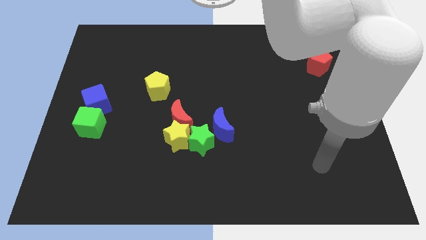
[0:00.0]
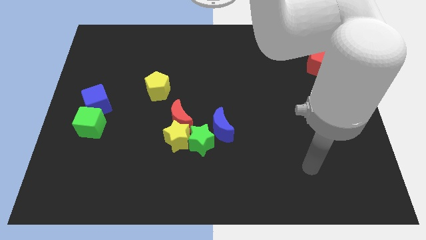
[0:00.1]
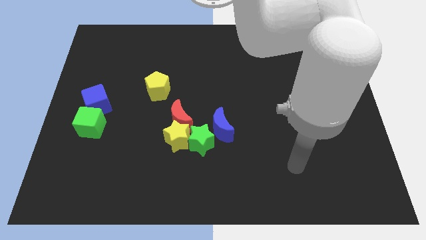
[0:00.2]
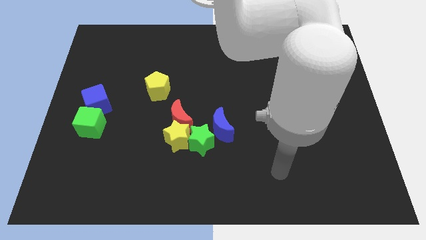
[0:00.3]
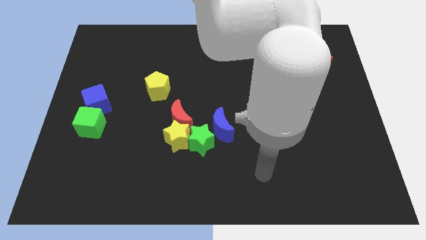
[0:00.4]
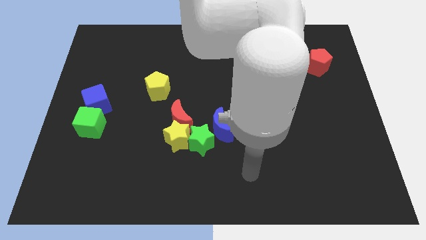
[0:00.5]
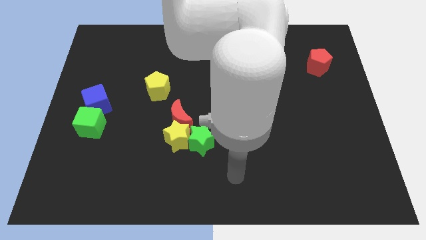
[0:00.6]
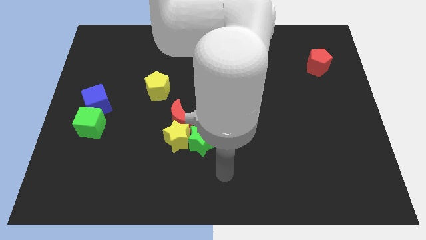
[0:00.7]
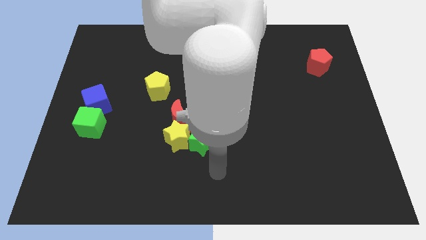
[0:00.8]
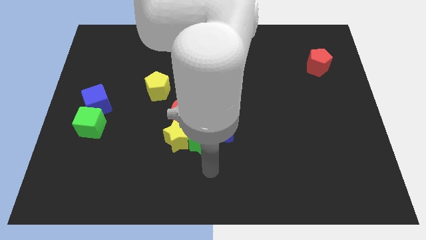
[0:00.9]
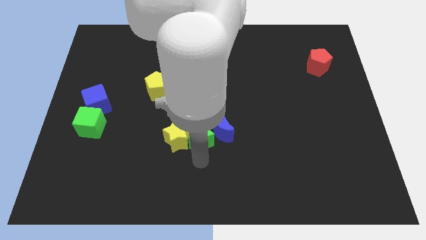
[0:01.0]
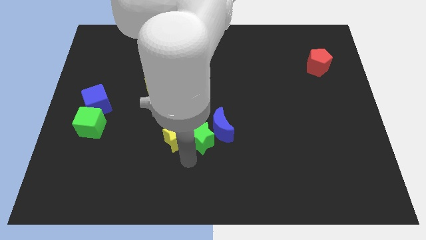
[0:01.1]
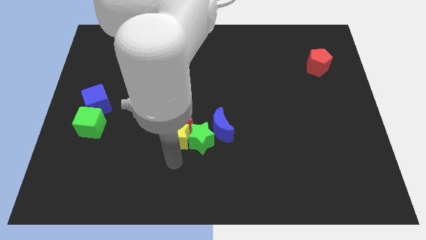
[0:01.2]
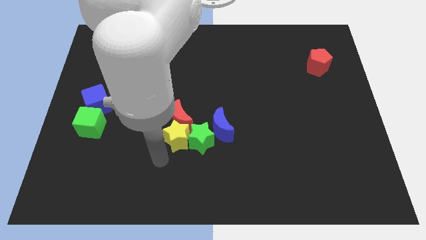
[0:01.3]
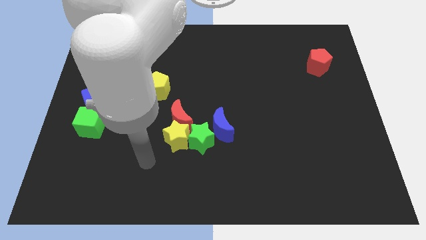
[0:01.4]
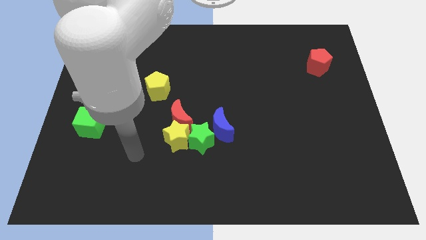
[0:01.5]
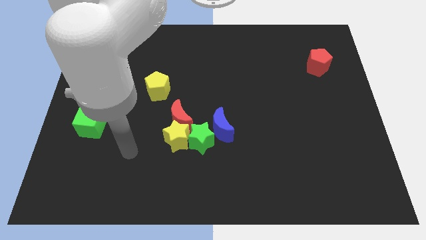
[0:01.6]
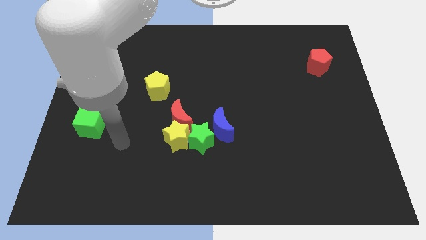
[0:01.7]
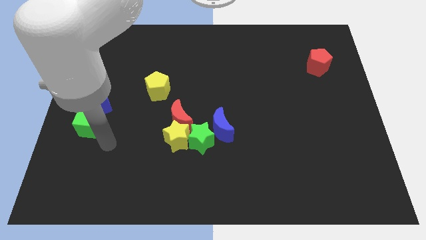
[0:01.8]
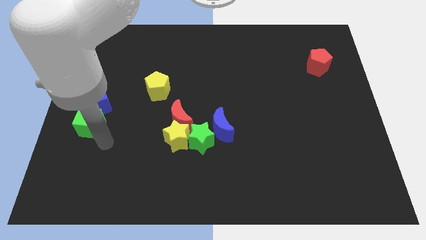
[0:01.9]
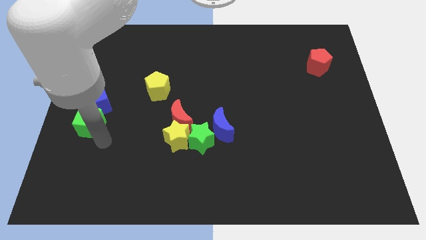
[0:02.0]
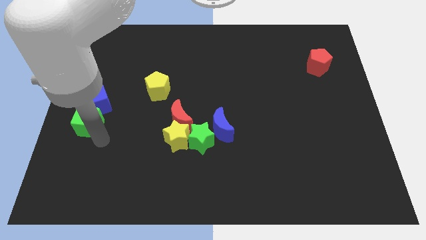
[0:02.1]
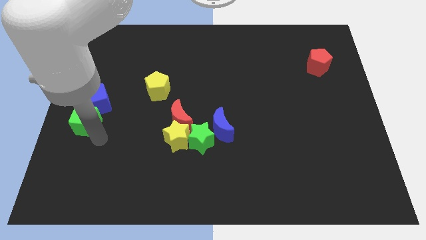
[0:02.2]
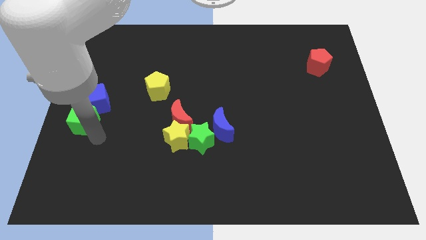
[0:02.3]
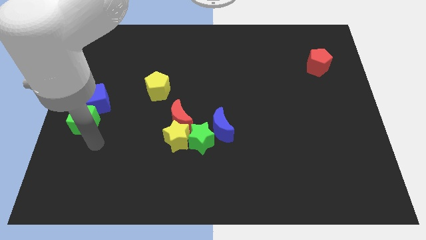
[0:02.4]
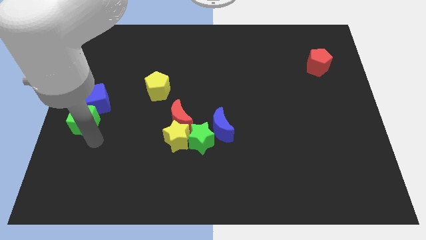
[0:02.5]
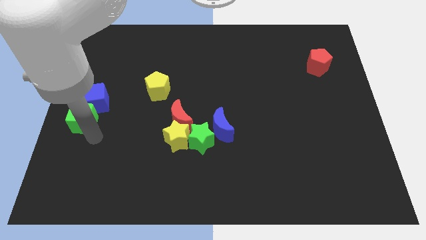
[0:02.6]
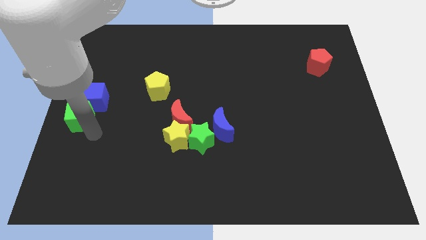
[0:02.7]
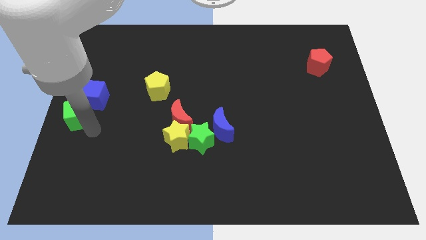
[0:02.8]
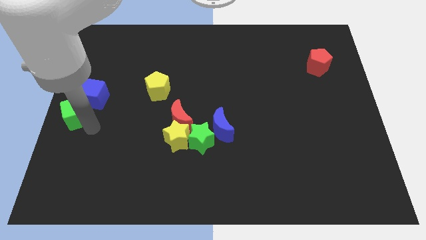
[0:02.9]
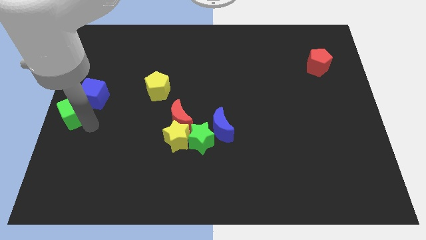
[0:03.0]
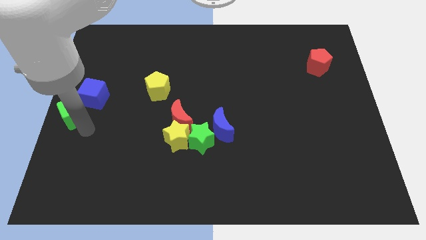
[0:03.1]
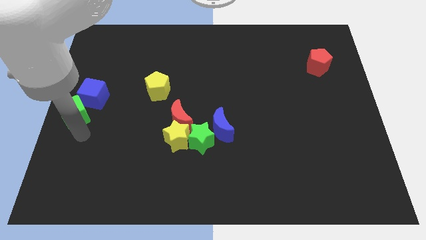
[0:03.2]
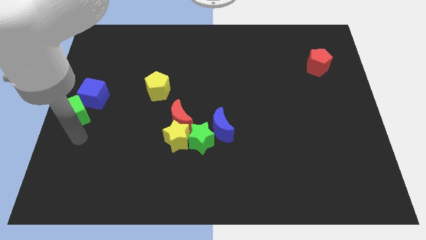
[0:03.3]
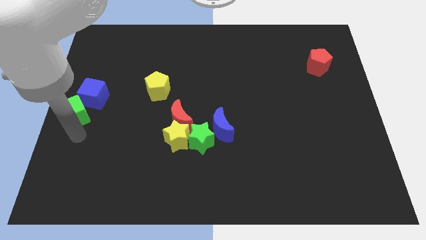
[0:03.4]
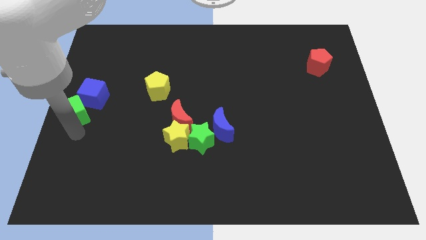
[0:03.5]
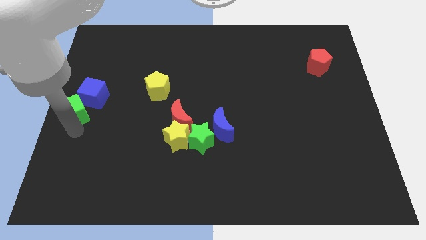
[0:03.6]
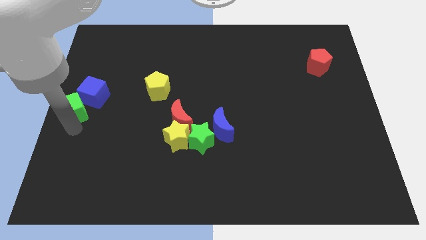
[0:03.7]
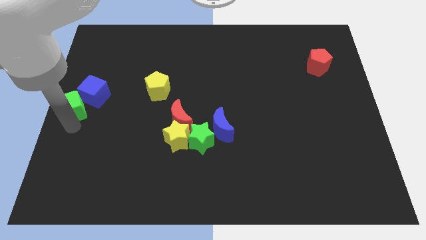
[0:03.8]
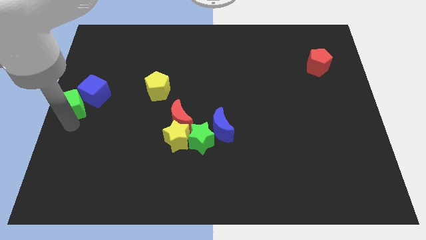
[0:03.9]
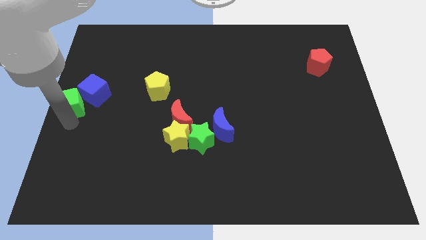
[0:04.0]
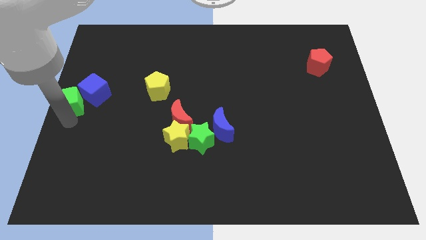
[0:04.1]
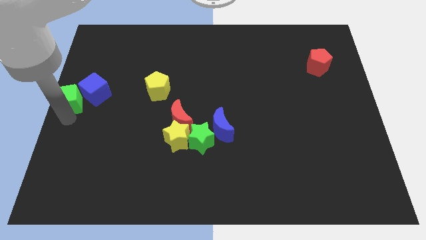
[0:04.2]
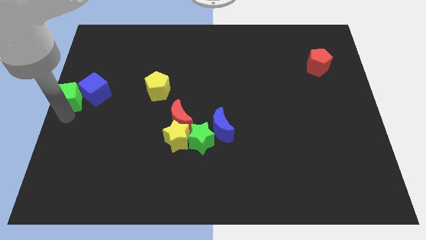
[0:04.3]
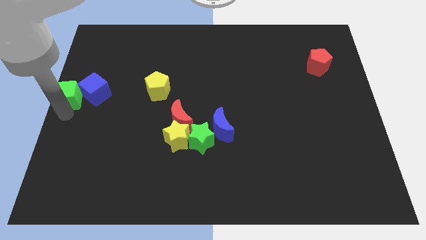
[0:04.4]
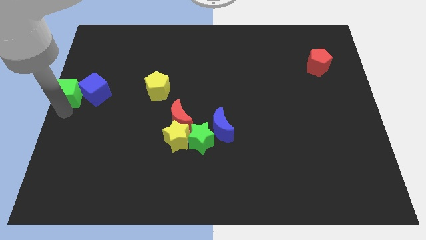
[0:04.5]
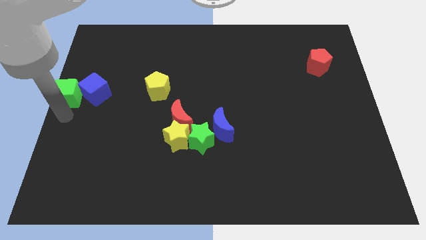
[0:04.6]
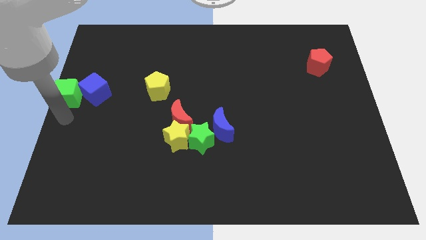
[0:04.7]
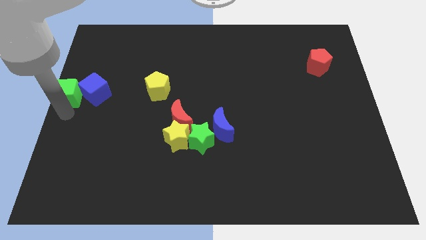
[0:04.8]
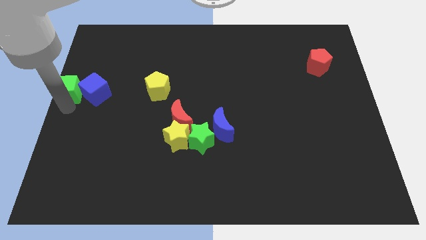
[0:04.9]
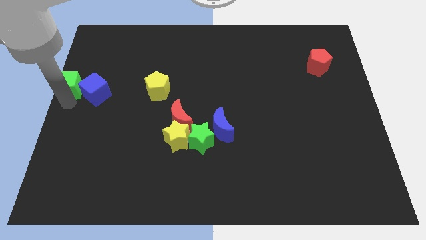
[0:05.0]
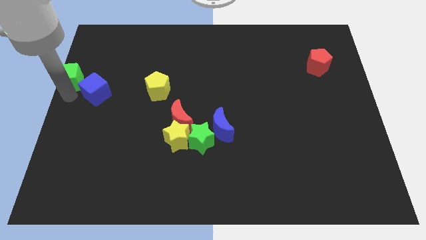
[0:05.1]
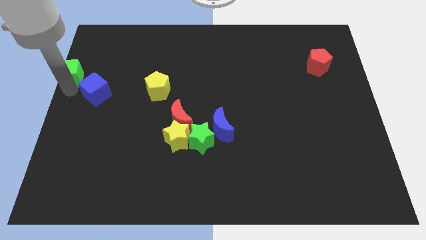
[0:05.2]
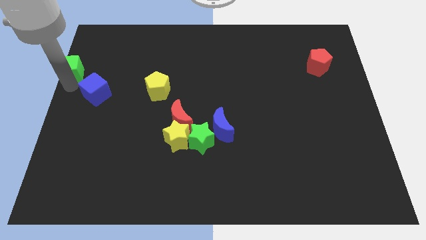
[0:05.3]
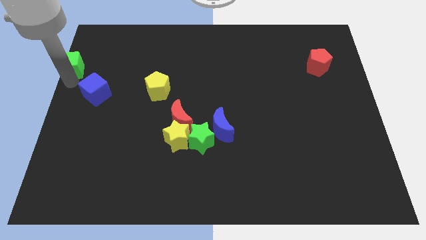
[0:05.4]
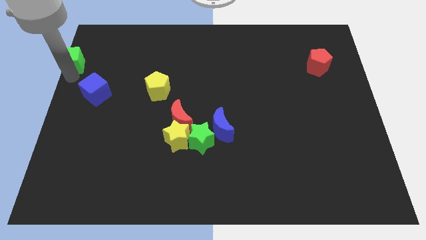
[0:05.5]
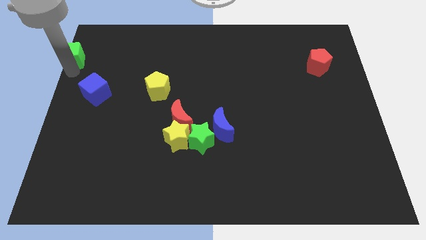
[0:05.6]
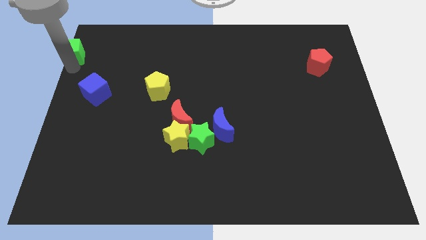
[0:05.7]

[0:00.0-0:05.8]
push the green cube to the top left corner

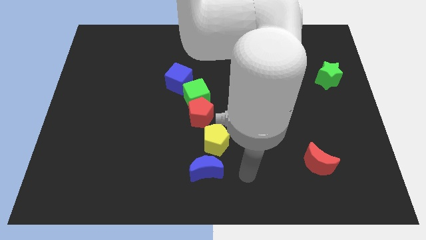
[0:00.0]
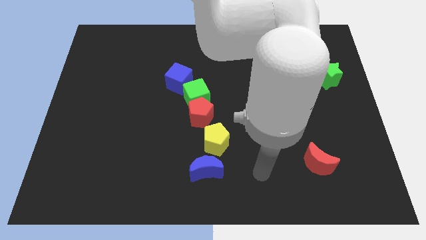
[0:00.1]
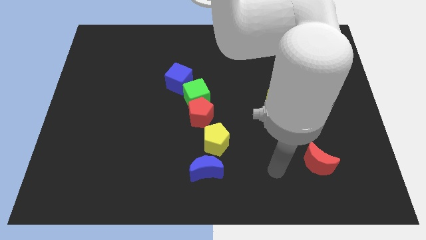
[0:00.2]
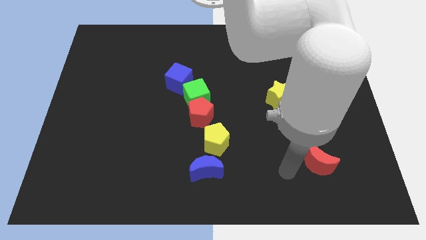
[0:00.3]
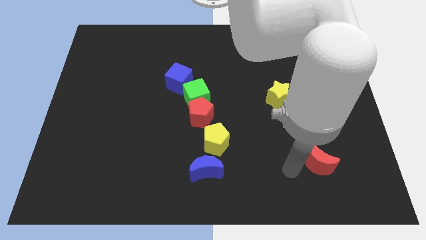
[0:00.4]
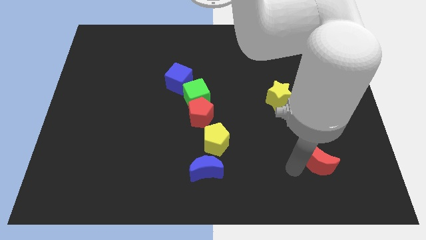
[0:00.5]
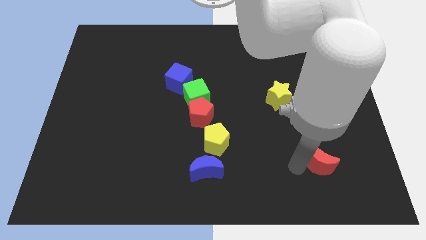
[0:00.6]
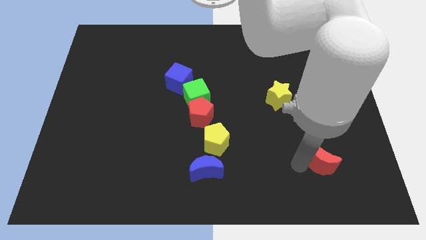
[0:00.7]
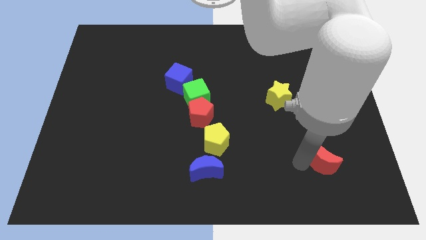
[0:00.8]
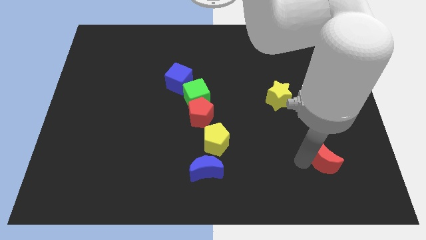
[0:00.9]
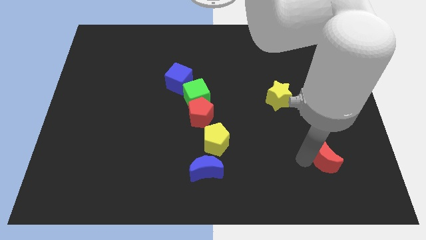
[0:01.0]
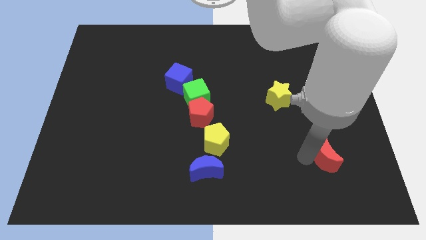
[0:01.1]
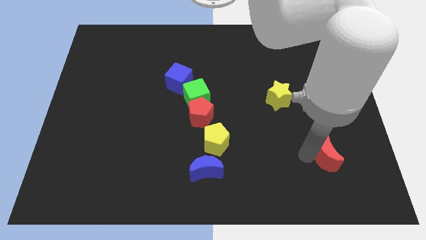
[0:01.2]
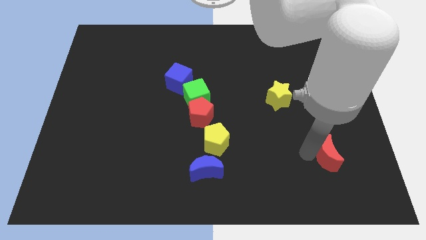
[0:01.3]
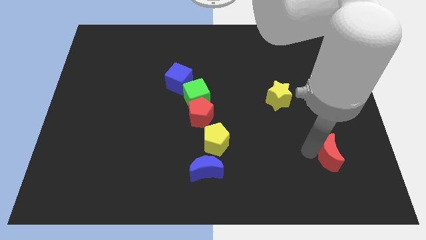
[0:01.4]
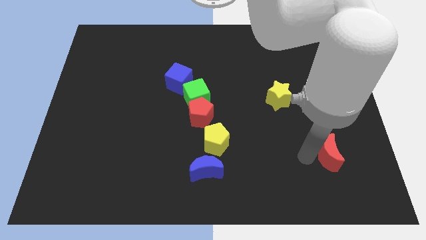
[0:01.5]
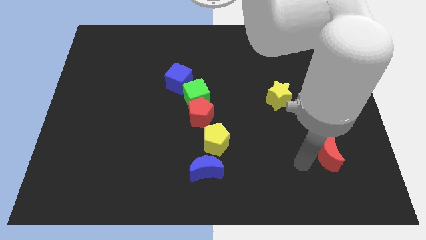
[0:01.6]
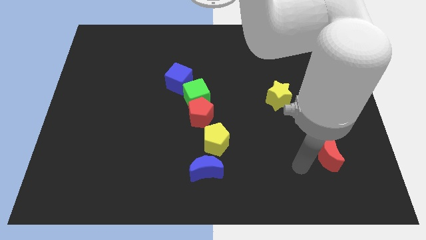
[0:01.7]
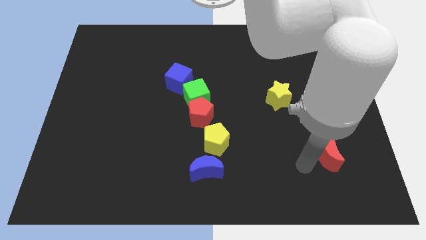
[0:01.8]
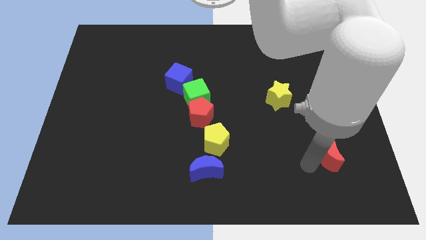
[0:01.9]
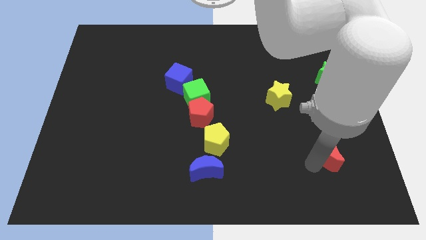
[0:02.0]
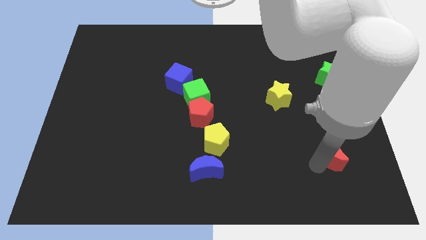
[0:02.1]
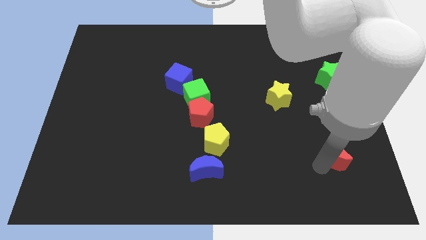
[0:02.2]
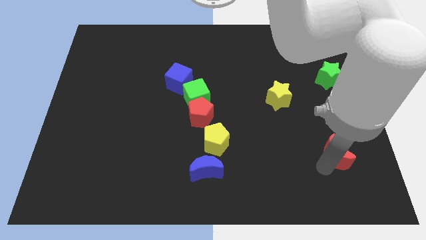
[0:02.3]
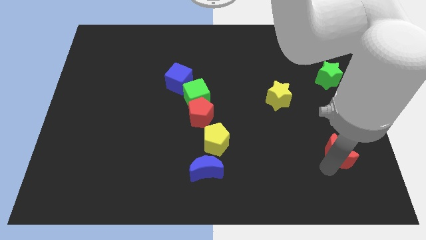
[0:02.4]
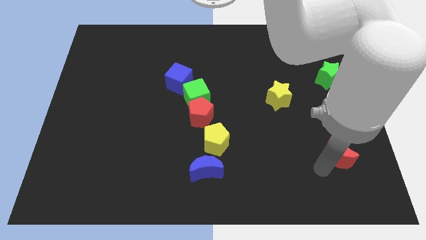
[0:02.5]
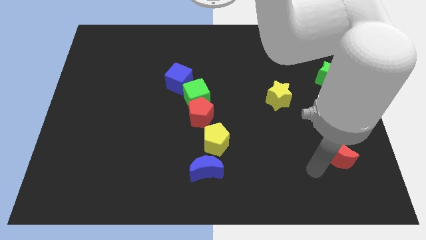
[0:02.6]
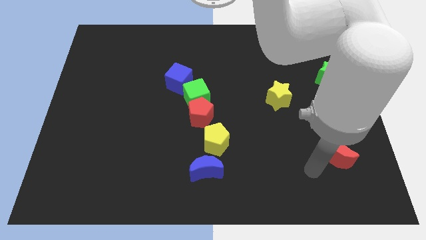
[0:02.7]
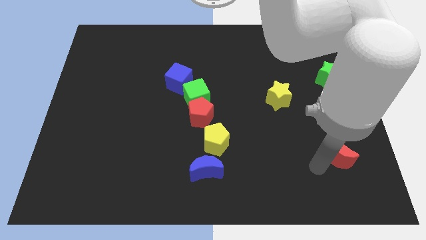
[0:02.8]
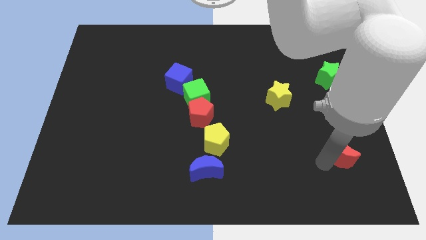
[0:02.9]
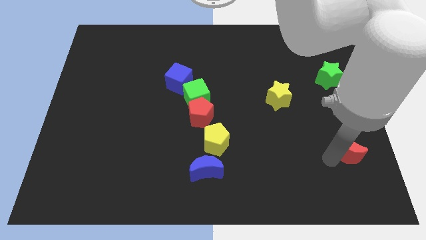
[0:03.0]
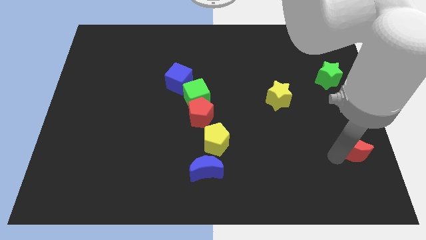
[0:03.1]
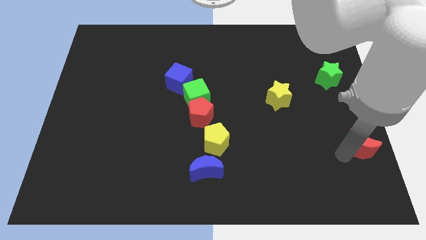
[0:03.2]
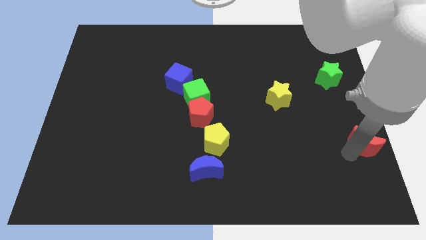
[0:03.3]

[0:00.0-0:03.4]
put the red moon to the right side
